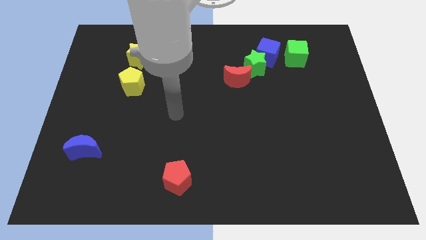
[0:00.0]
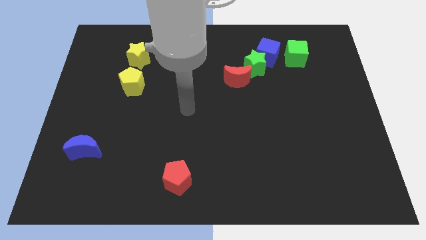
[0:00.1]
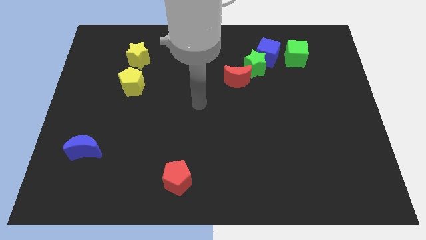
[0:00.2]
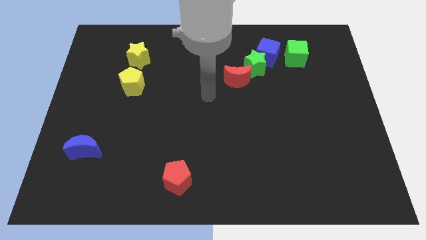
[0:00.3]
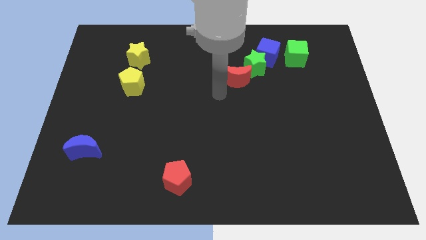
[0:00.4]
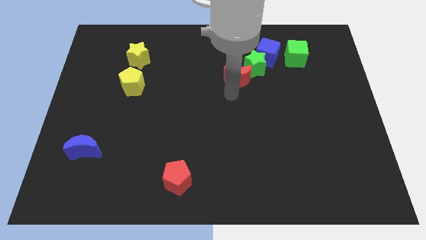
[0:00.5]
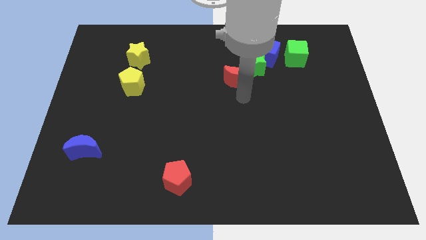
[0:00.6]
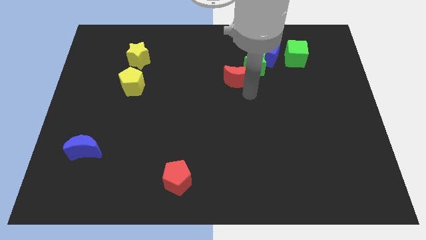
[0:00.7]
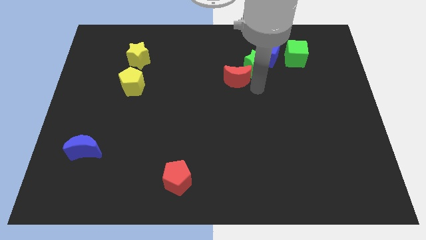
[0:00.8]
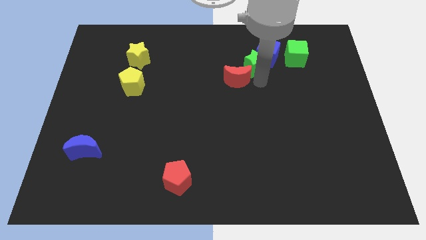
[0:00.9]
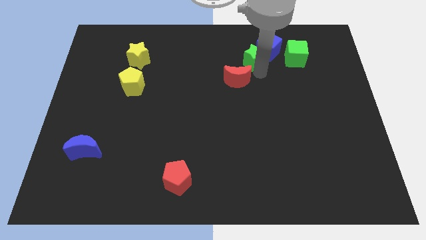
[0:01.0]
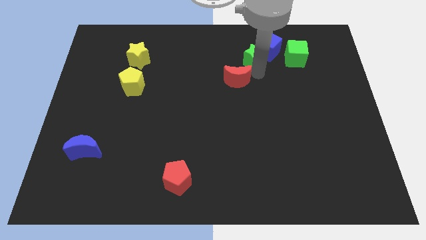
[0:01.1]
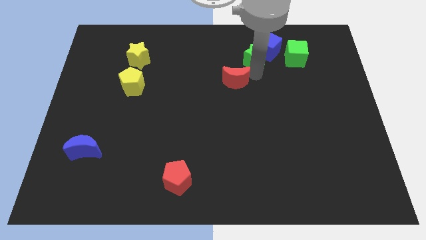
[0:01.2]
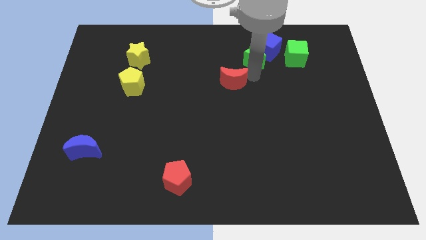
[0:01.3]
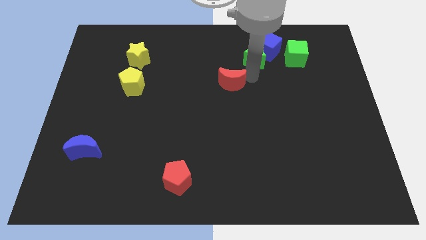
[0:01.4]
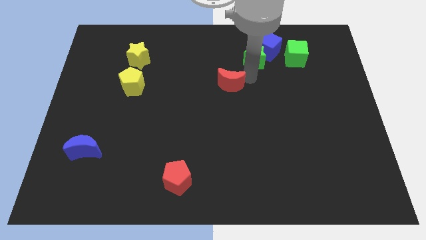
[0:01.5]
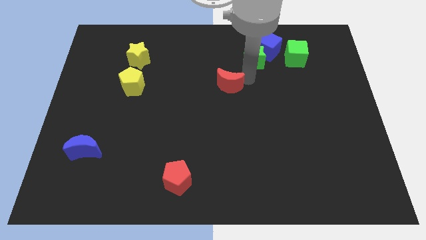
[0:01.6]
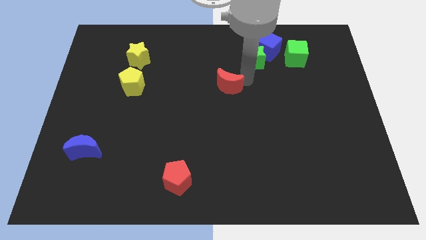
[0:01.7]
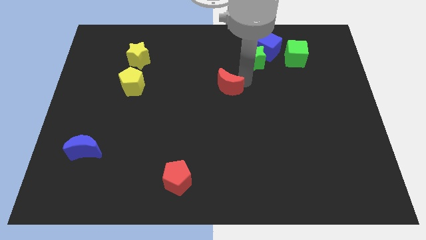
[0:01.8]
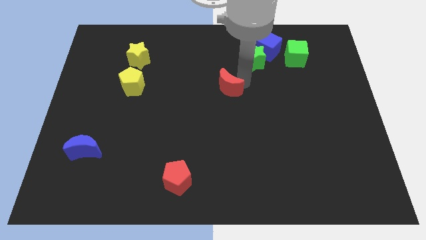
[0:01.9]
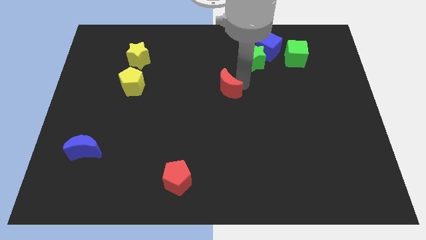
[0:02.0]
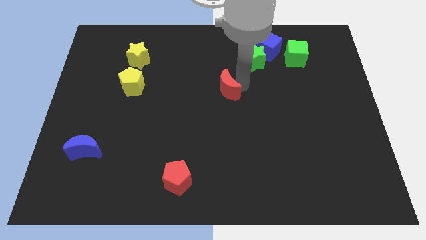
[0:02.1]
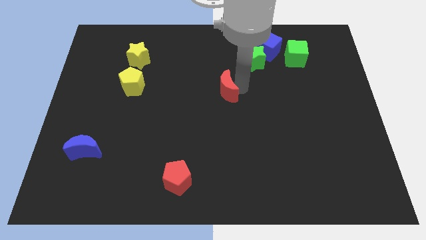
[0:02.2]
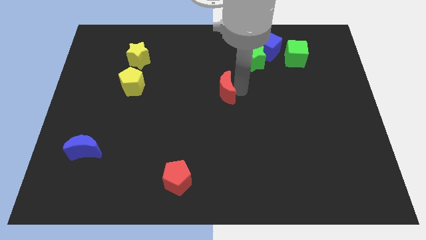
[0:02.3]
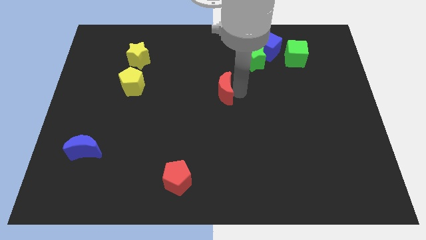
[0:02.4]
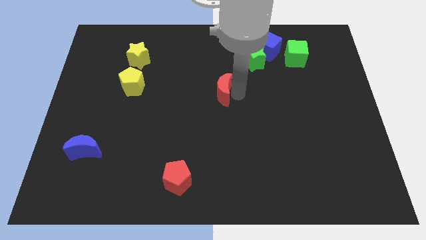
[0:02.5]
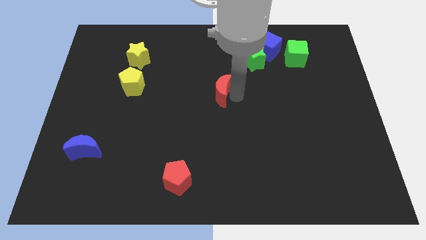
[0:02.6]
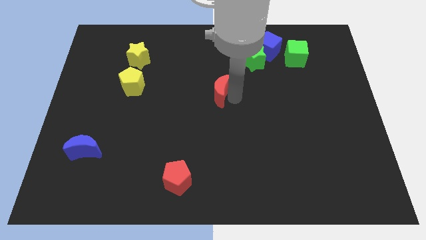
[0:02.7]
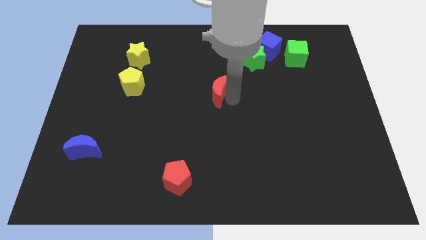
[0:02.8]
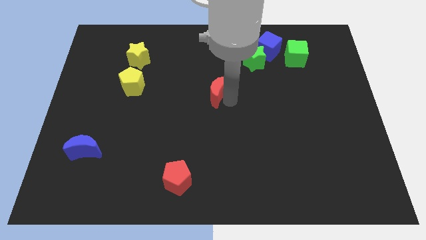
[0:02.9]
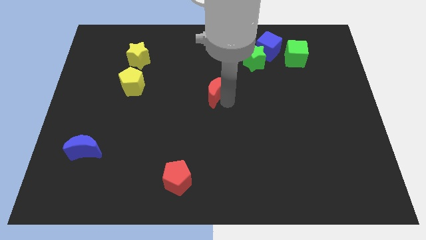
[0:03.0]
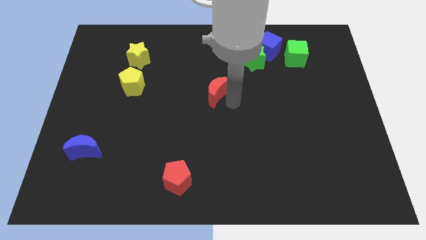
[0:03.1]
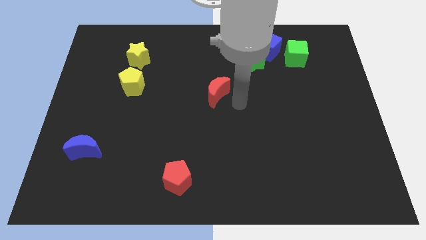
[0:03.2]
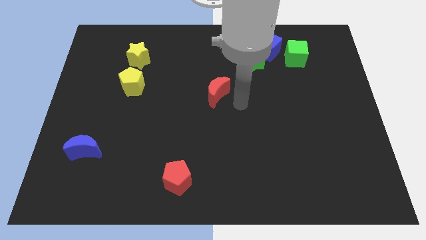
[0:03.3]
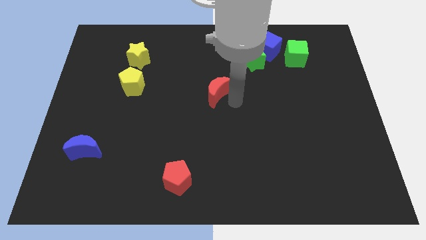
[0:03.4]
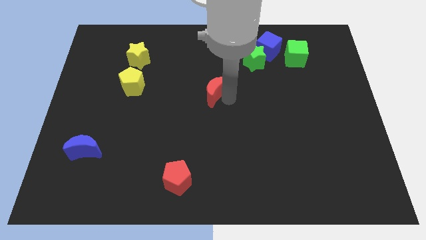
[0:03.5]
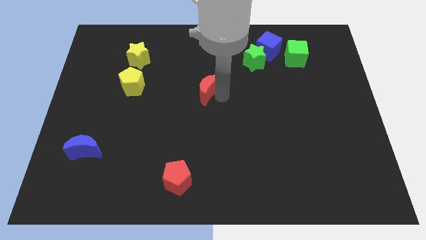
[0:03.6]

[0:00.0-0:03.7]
slightly push the red moon to the left

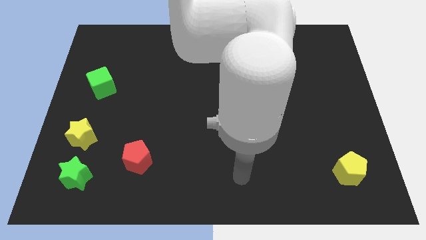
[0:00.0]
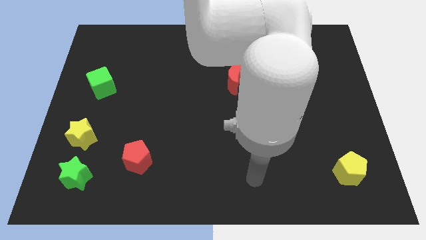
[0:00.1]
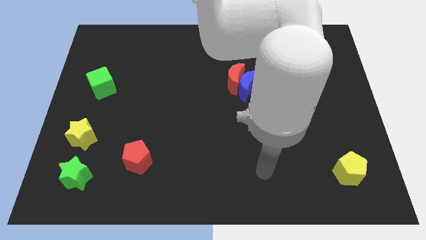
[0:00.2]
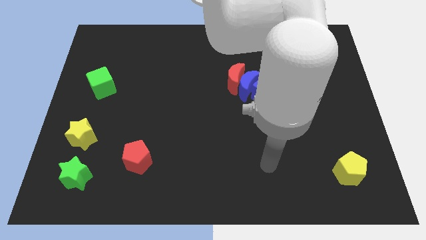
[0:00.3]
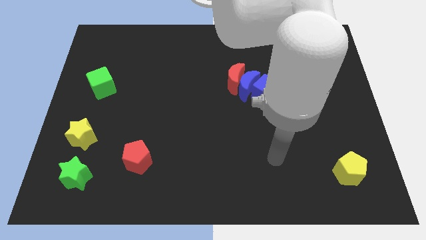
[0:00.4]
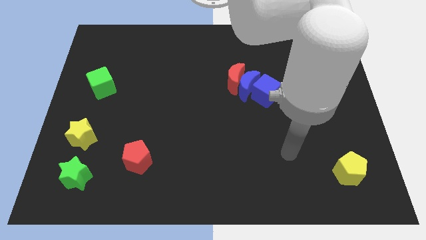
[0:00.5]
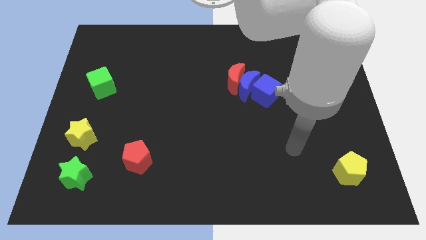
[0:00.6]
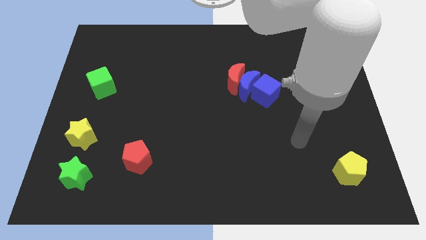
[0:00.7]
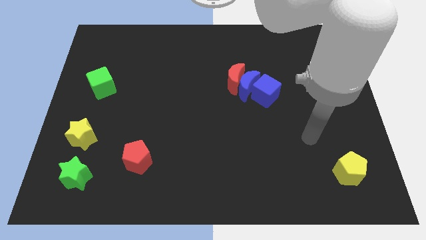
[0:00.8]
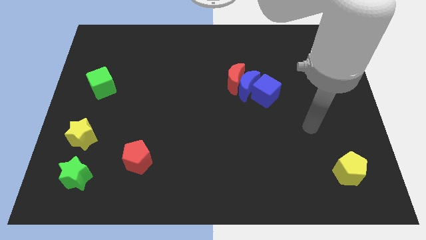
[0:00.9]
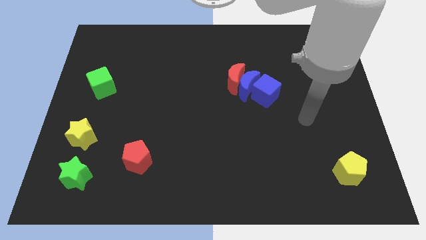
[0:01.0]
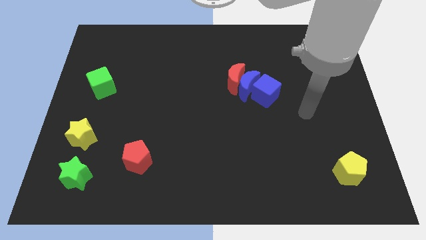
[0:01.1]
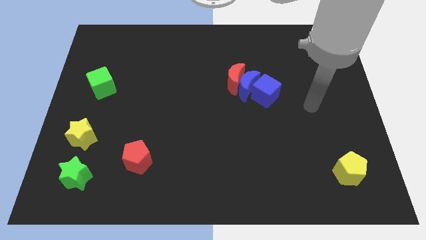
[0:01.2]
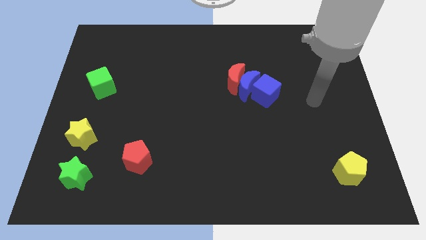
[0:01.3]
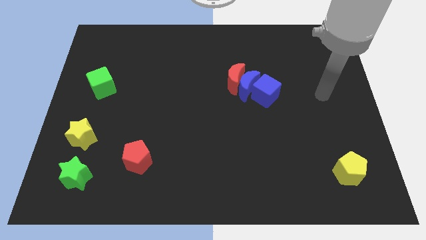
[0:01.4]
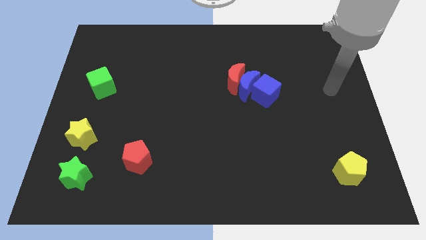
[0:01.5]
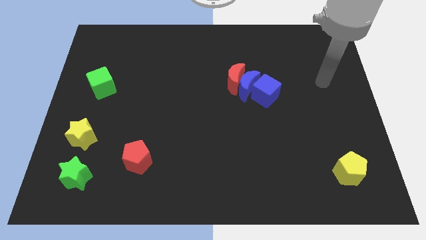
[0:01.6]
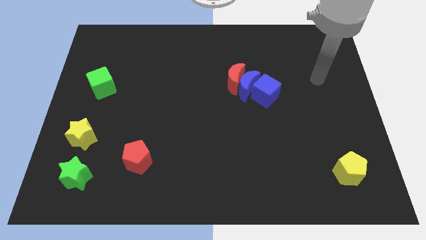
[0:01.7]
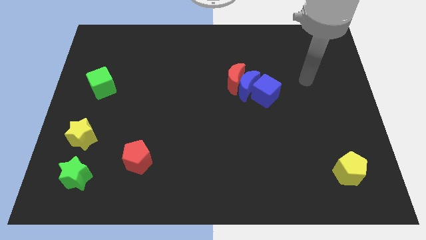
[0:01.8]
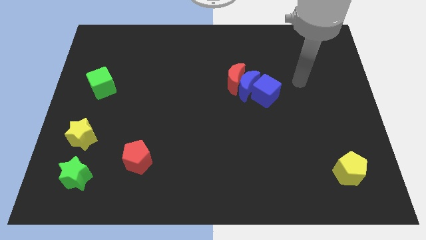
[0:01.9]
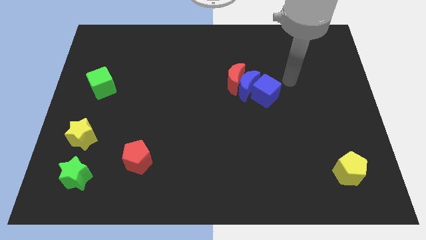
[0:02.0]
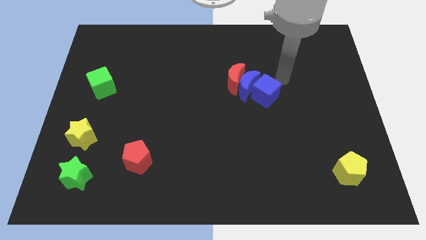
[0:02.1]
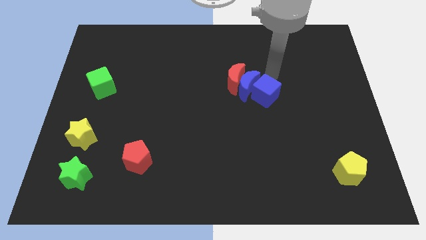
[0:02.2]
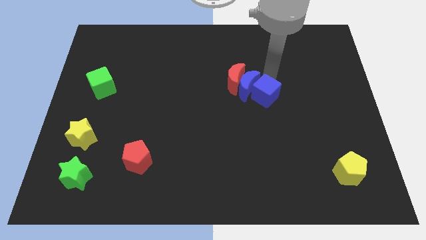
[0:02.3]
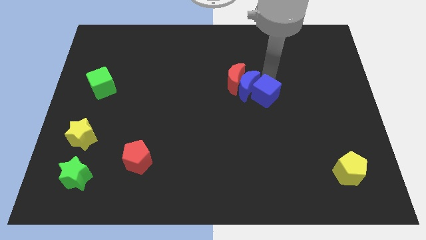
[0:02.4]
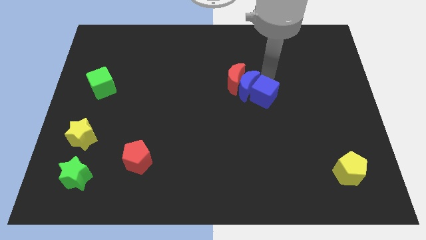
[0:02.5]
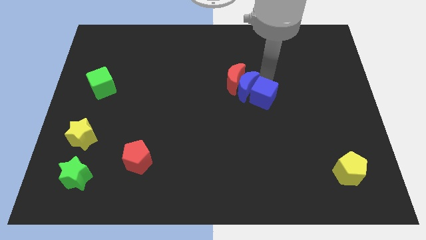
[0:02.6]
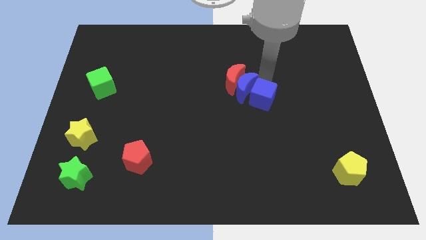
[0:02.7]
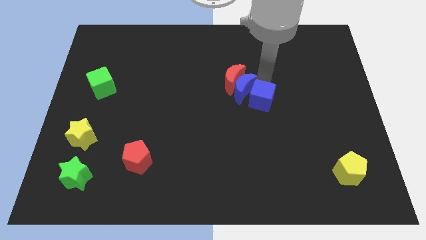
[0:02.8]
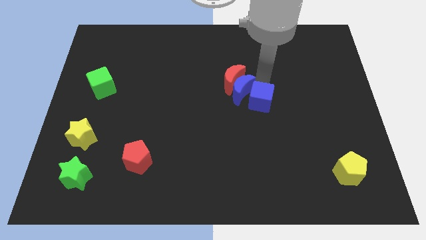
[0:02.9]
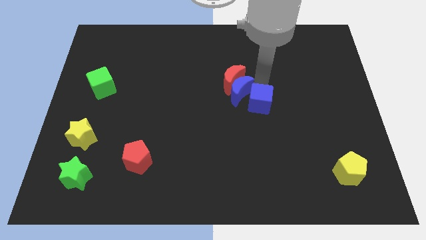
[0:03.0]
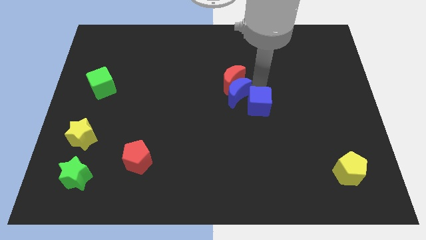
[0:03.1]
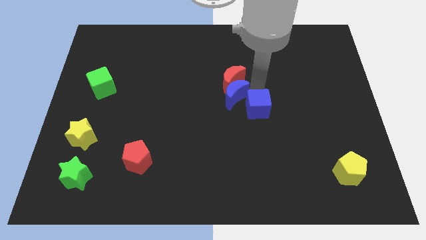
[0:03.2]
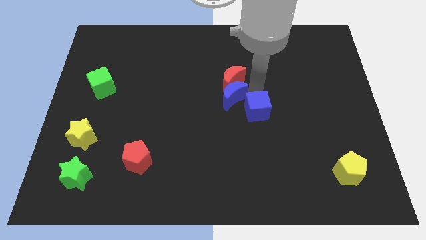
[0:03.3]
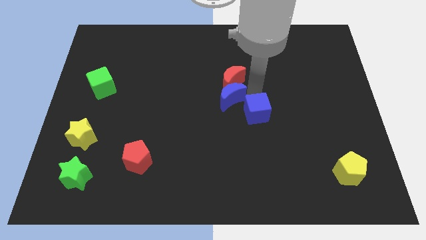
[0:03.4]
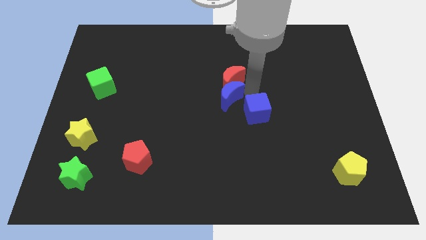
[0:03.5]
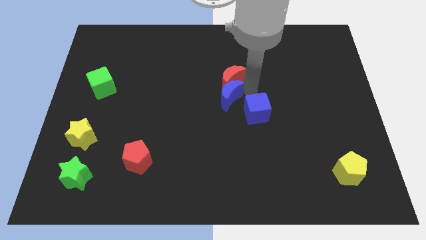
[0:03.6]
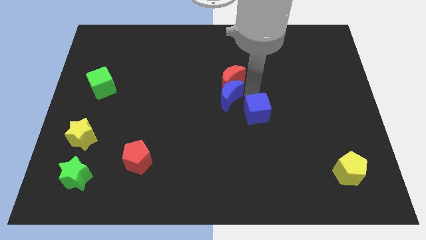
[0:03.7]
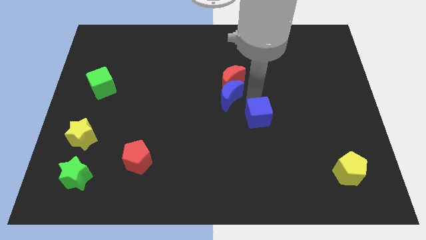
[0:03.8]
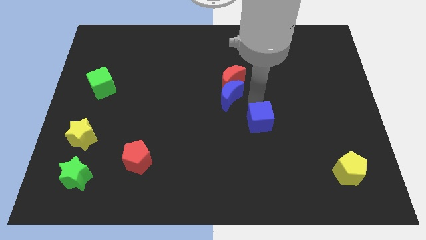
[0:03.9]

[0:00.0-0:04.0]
push the blue cube downwards a little
